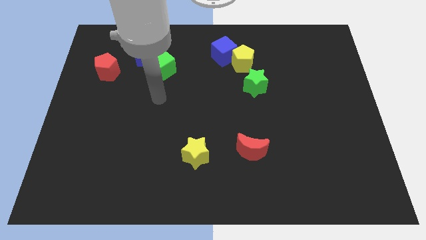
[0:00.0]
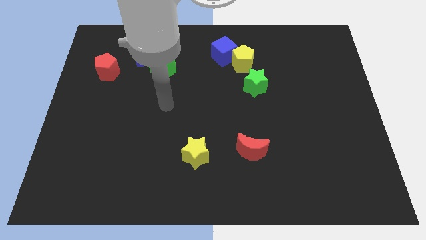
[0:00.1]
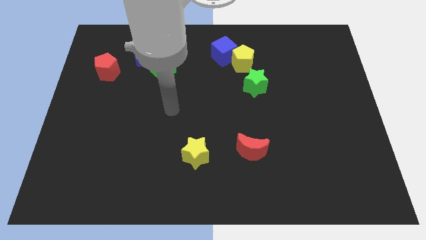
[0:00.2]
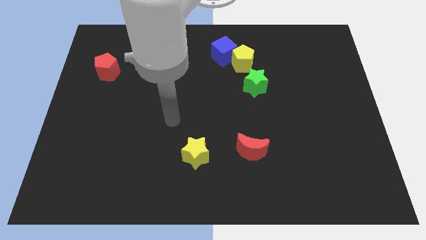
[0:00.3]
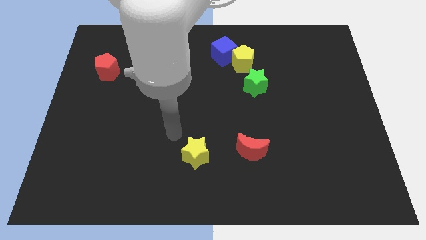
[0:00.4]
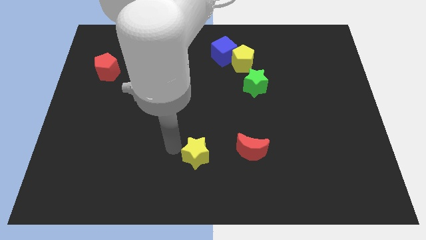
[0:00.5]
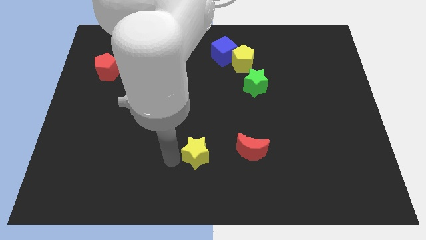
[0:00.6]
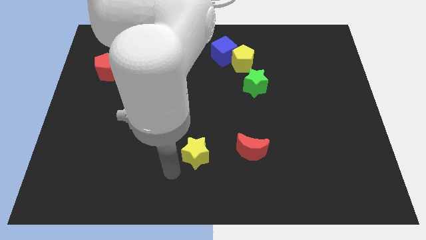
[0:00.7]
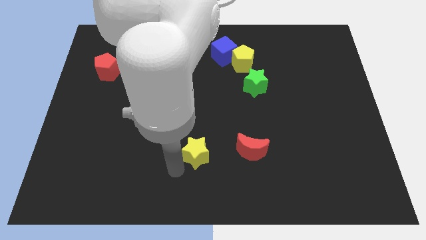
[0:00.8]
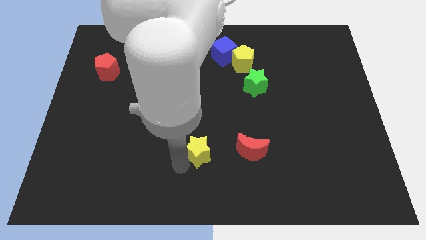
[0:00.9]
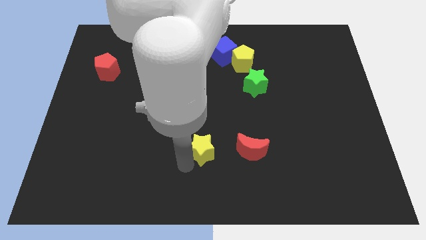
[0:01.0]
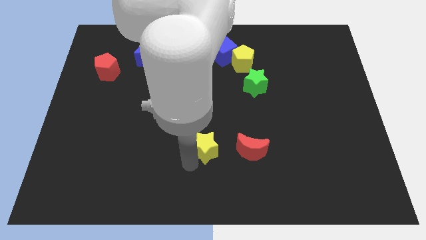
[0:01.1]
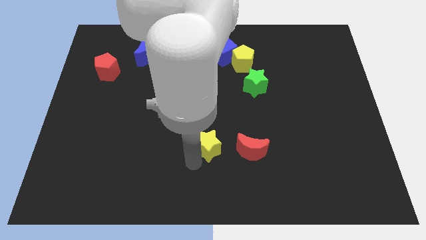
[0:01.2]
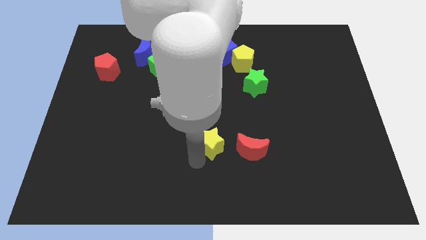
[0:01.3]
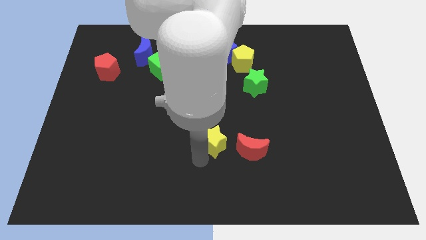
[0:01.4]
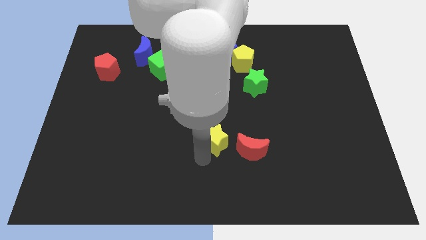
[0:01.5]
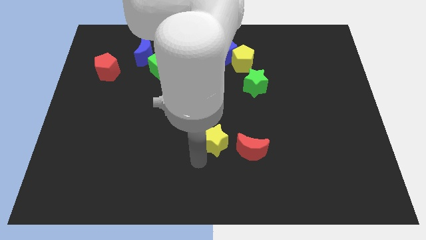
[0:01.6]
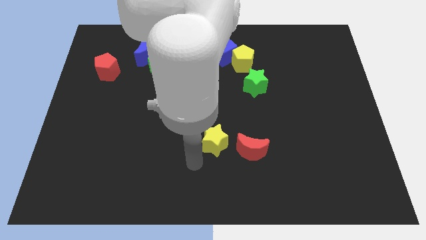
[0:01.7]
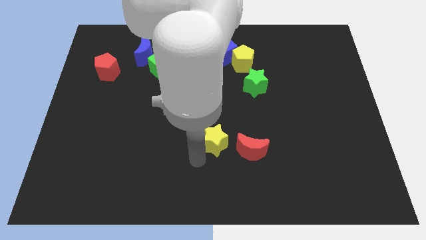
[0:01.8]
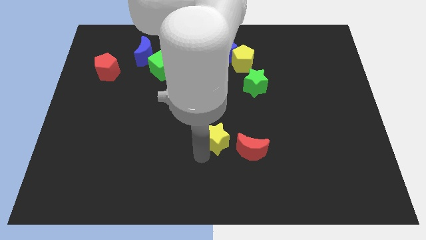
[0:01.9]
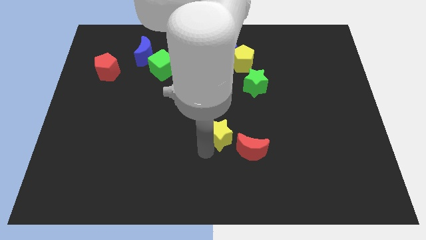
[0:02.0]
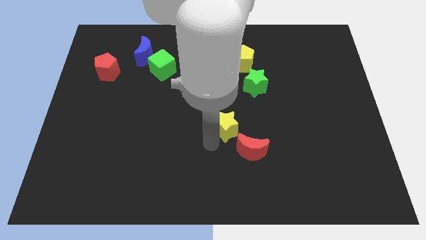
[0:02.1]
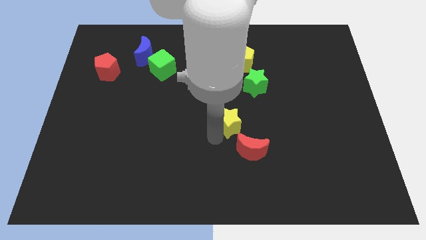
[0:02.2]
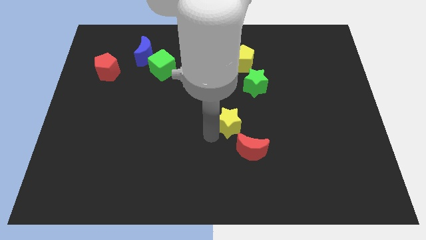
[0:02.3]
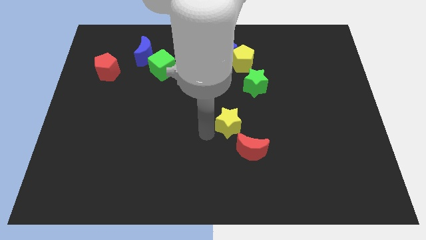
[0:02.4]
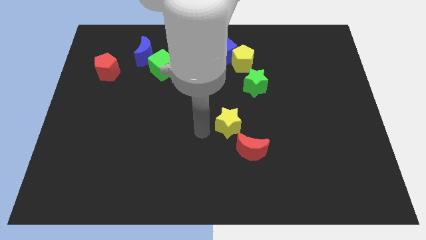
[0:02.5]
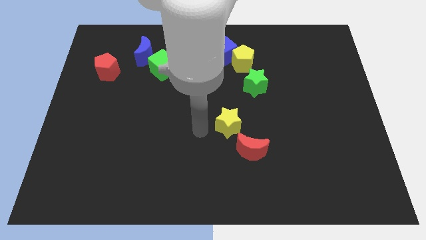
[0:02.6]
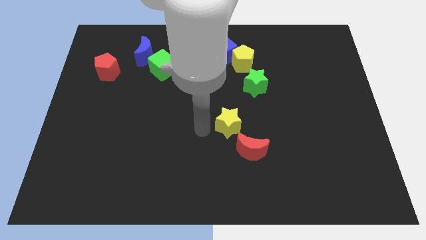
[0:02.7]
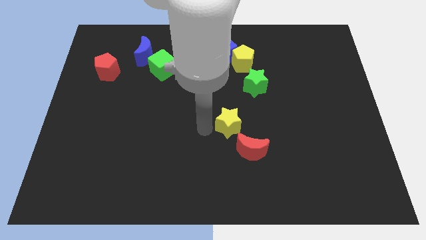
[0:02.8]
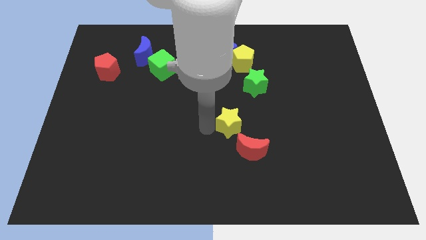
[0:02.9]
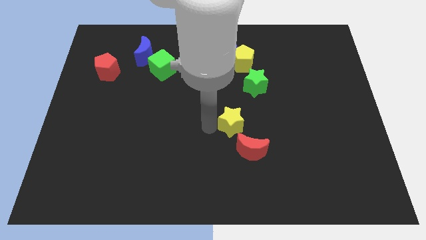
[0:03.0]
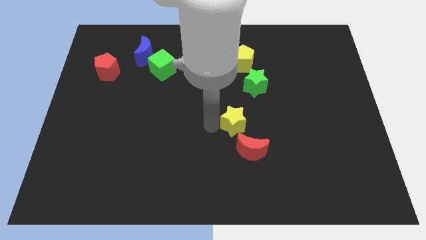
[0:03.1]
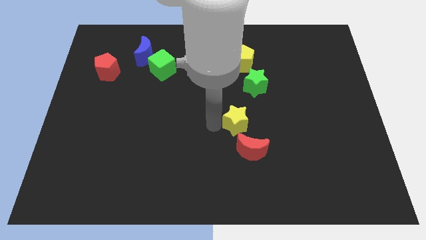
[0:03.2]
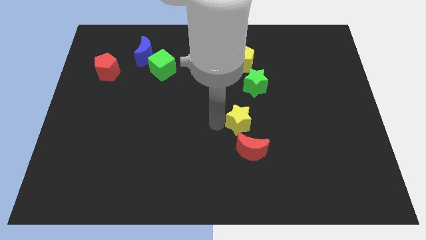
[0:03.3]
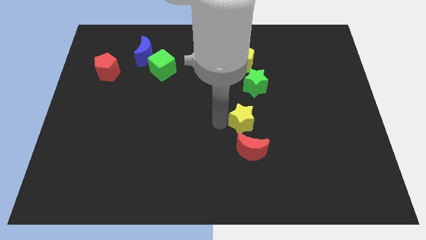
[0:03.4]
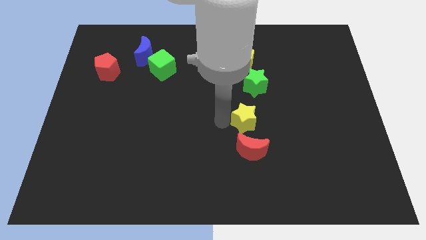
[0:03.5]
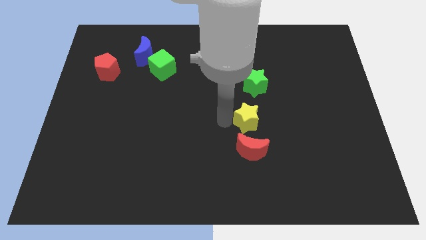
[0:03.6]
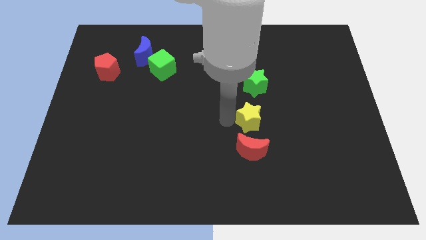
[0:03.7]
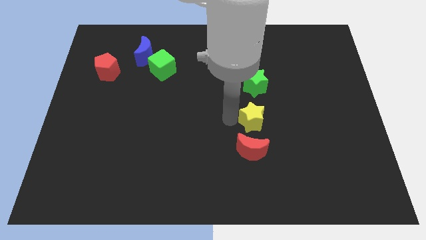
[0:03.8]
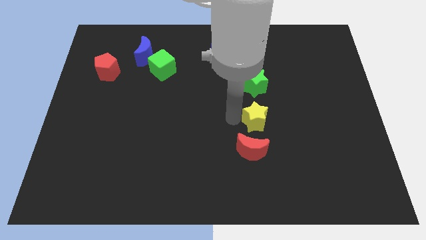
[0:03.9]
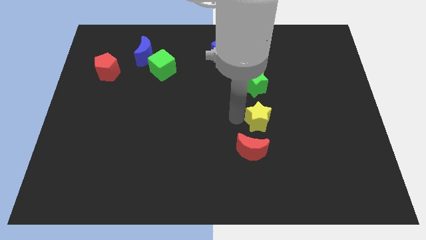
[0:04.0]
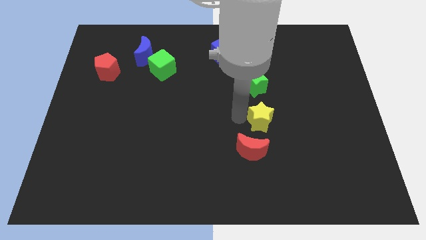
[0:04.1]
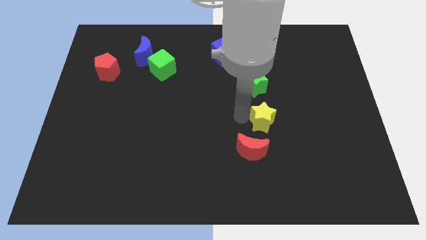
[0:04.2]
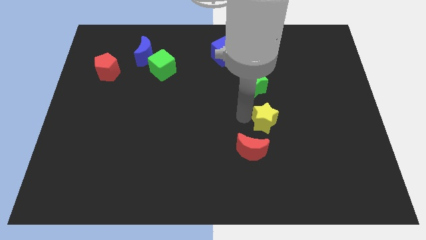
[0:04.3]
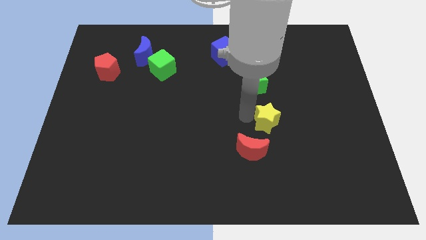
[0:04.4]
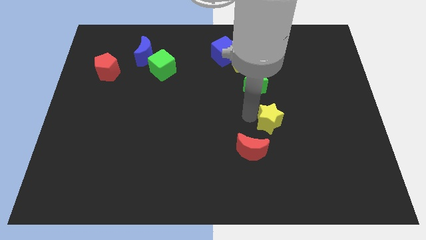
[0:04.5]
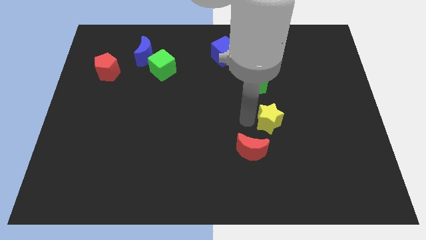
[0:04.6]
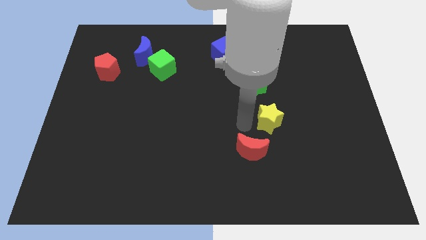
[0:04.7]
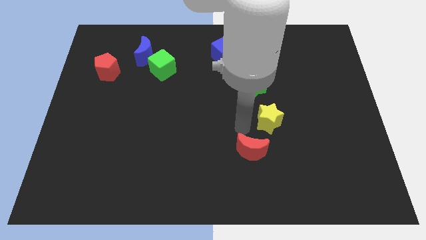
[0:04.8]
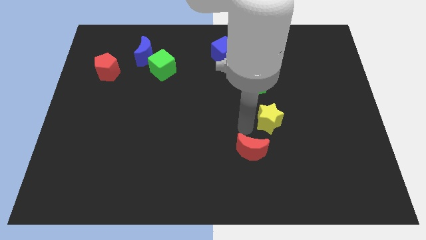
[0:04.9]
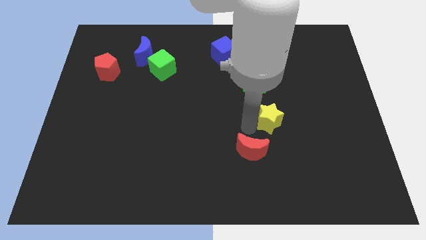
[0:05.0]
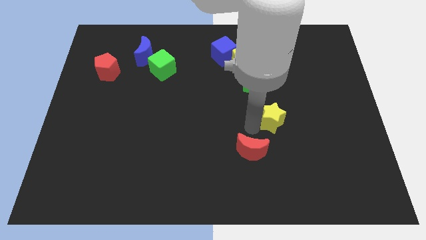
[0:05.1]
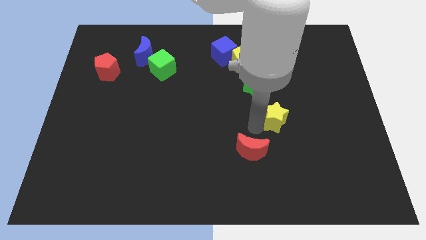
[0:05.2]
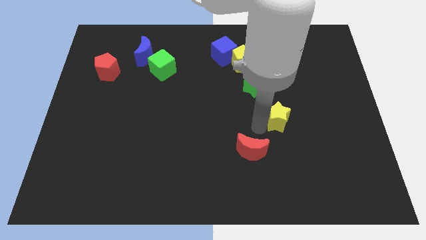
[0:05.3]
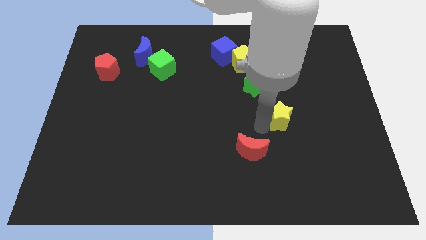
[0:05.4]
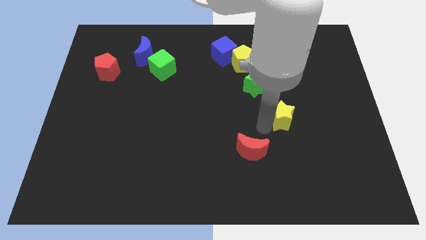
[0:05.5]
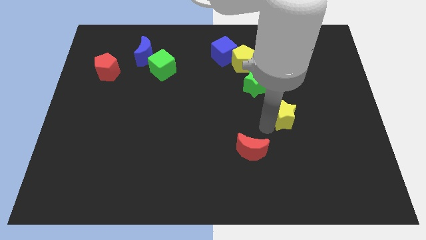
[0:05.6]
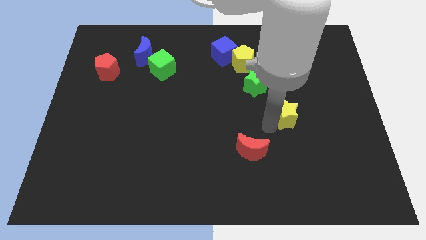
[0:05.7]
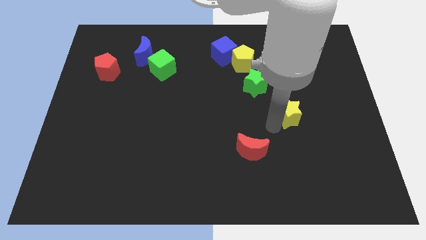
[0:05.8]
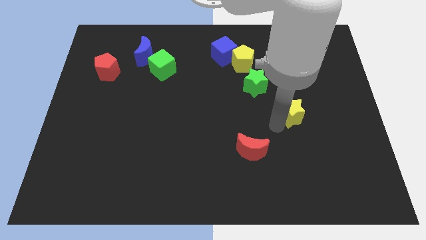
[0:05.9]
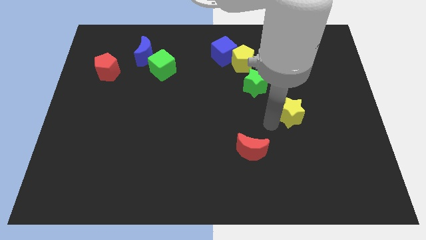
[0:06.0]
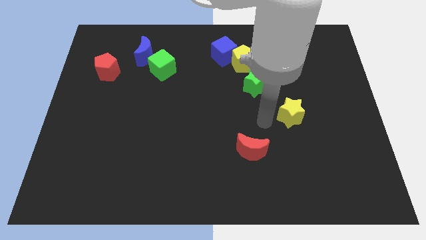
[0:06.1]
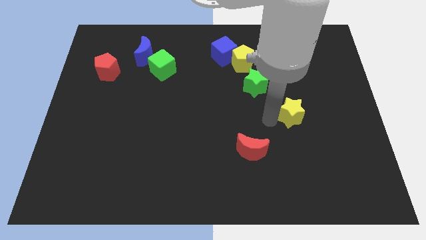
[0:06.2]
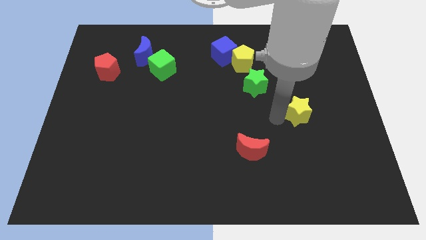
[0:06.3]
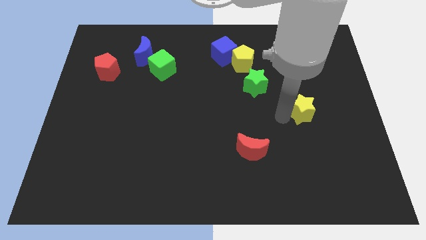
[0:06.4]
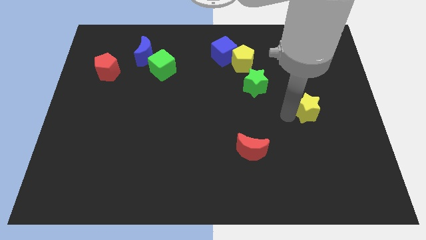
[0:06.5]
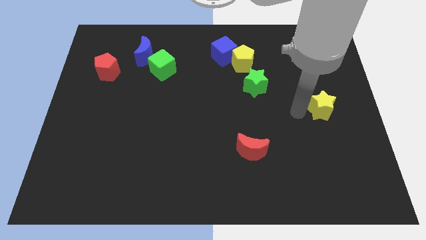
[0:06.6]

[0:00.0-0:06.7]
slide the yellow star to the right side
